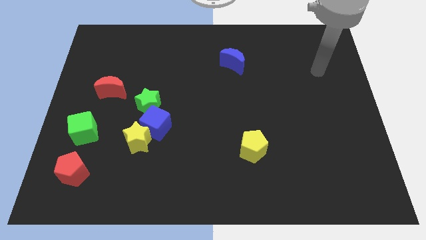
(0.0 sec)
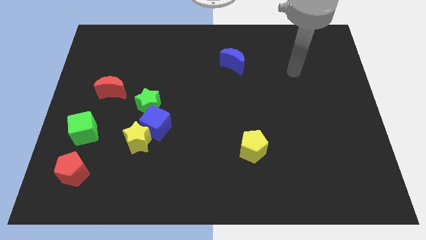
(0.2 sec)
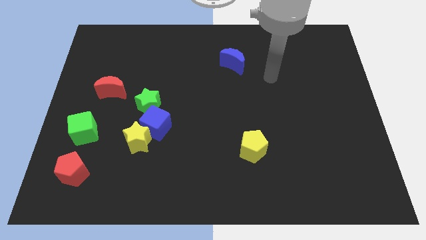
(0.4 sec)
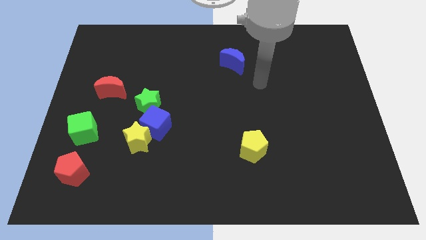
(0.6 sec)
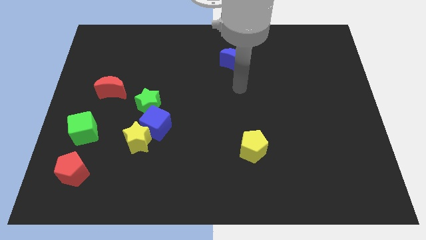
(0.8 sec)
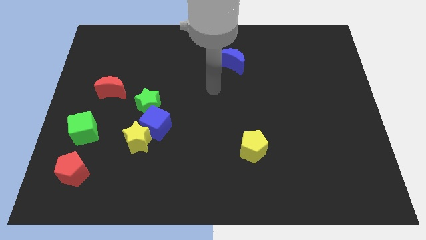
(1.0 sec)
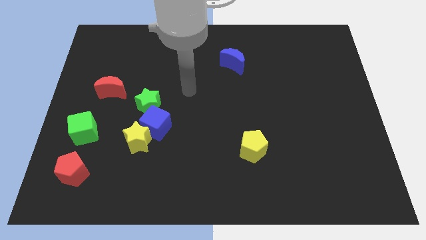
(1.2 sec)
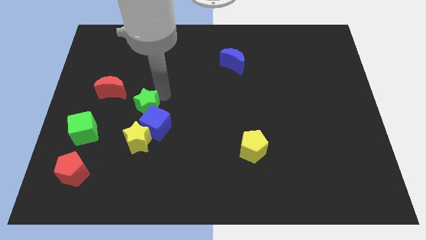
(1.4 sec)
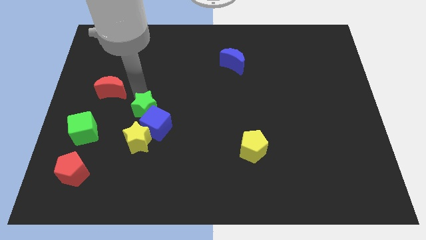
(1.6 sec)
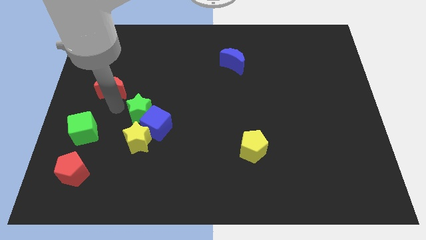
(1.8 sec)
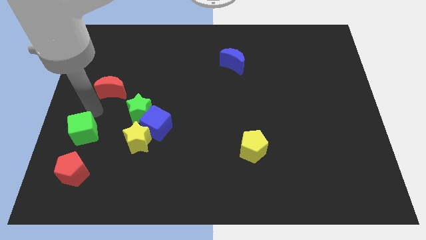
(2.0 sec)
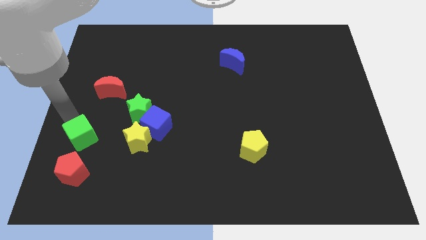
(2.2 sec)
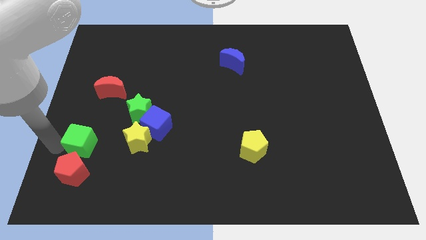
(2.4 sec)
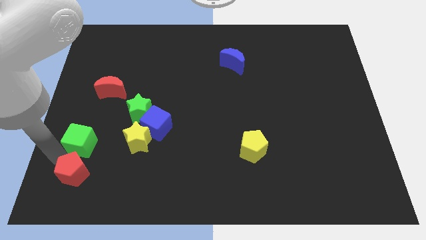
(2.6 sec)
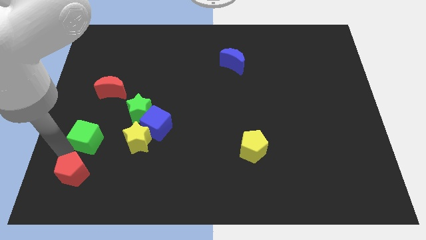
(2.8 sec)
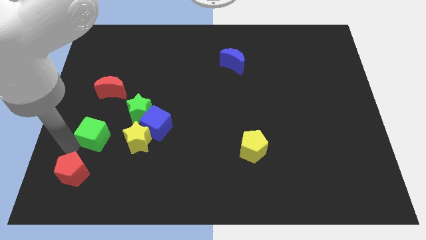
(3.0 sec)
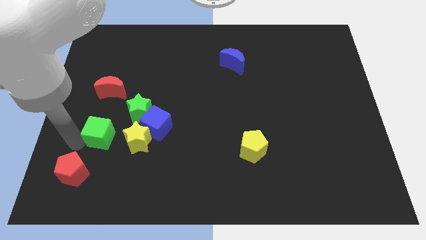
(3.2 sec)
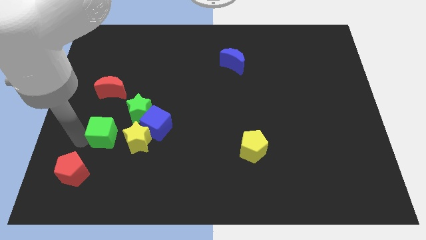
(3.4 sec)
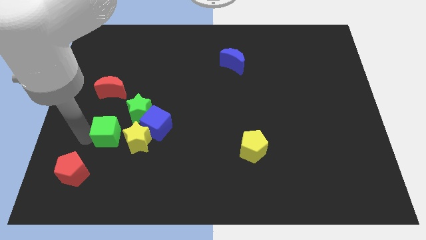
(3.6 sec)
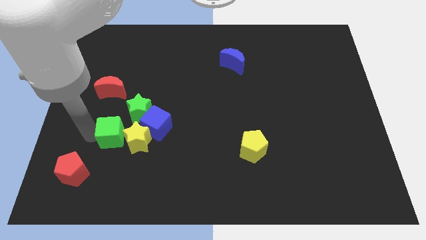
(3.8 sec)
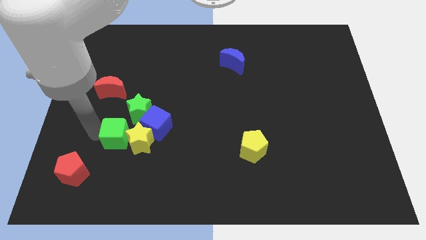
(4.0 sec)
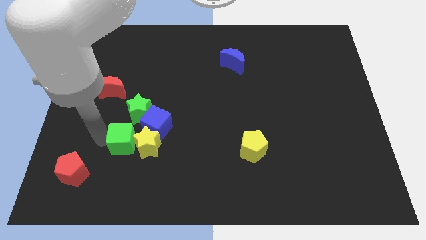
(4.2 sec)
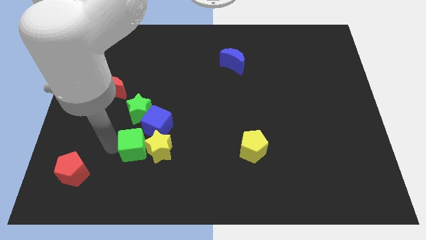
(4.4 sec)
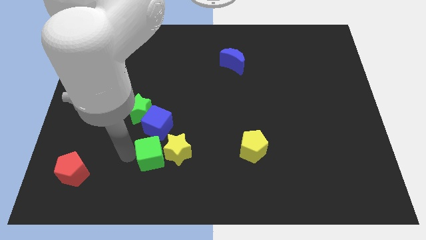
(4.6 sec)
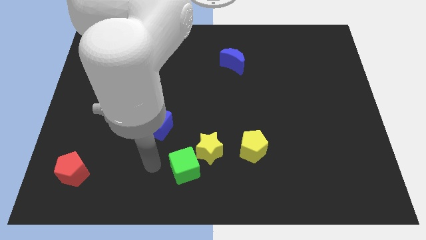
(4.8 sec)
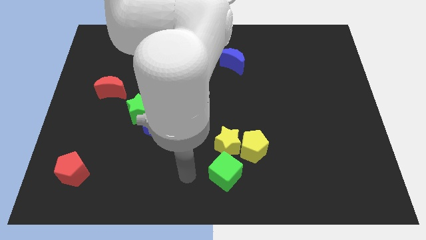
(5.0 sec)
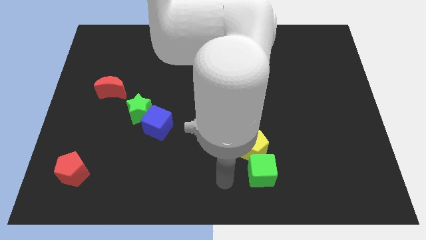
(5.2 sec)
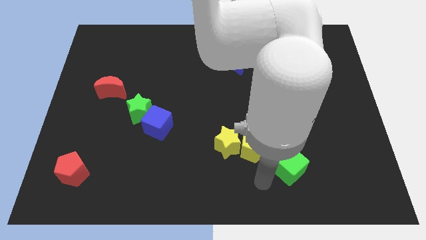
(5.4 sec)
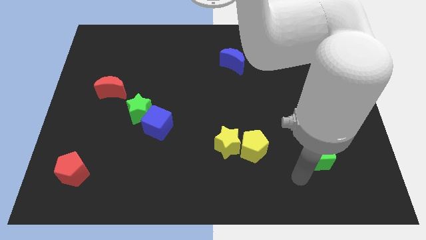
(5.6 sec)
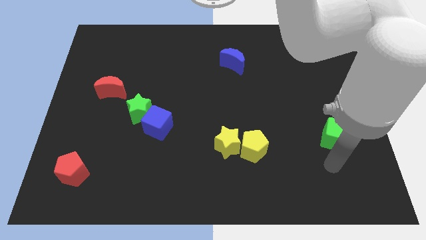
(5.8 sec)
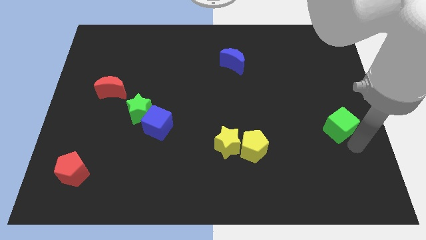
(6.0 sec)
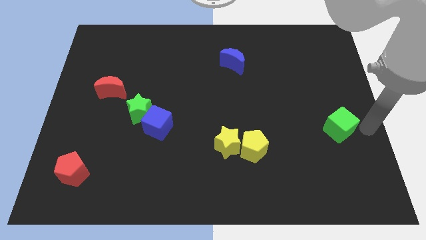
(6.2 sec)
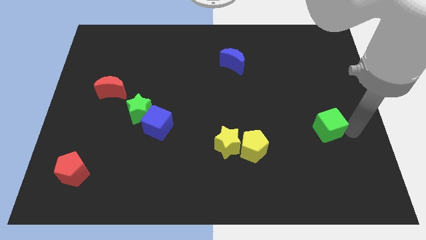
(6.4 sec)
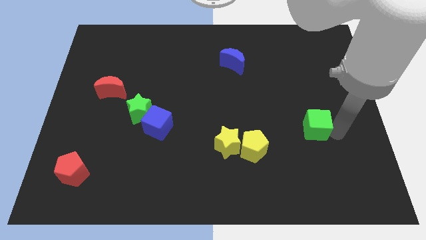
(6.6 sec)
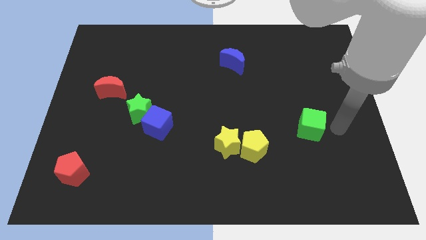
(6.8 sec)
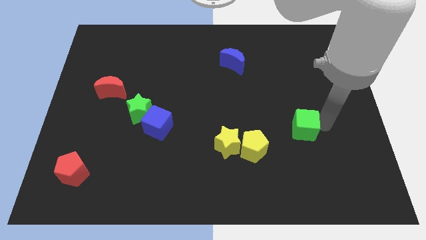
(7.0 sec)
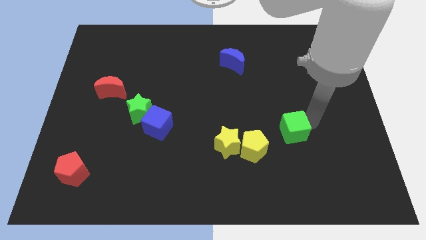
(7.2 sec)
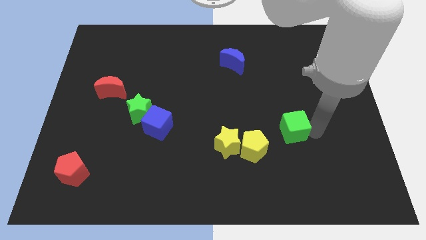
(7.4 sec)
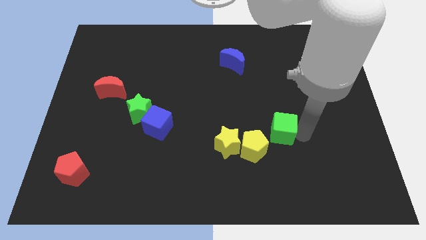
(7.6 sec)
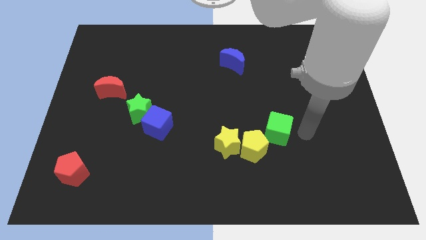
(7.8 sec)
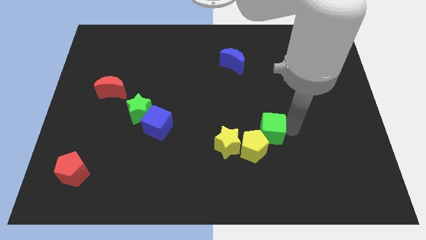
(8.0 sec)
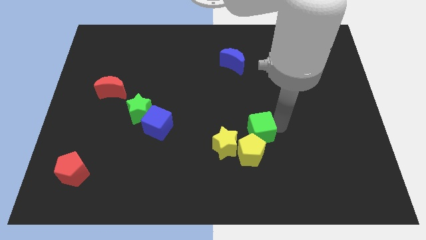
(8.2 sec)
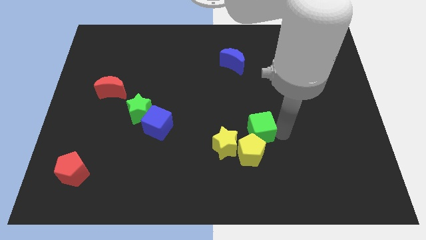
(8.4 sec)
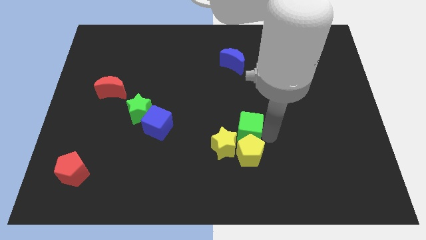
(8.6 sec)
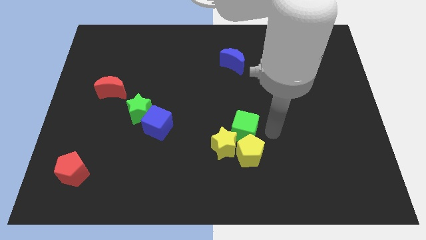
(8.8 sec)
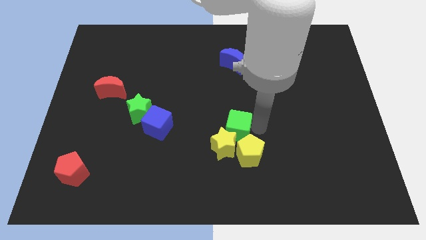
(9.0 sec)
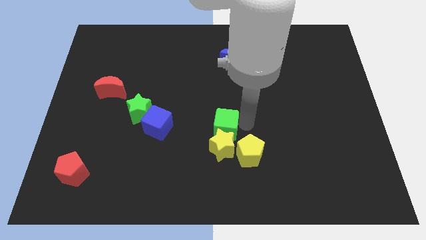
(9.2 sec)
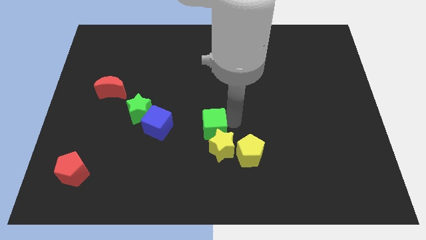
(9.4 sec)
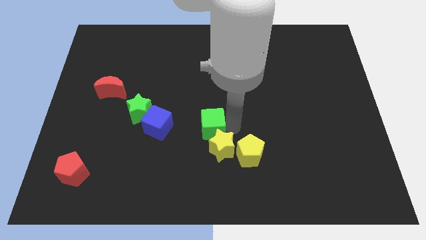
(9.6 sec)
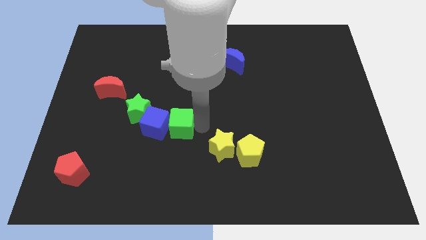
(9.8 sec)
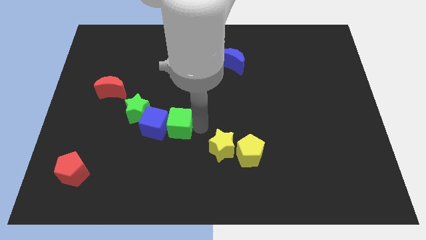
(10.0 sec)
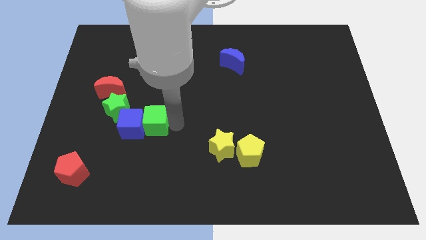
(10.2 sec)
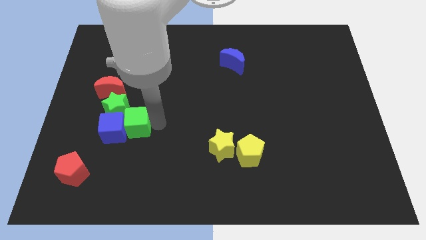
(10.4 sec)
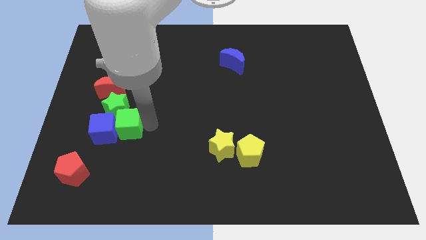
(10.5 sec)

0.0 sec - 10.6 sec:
push the green cube towards the green star

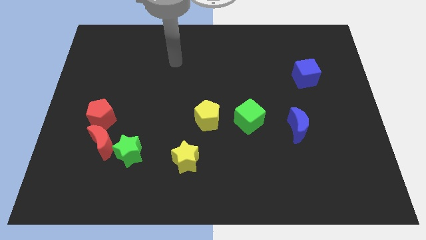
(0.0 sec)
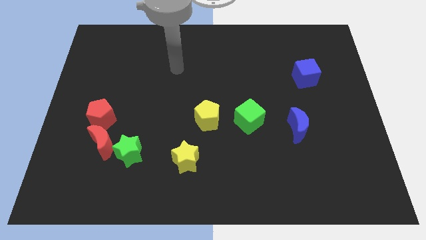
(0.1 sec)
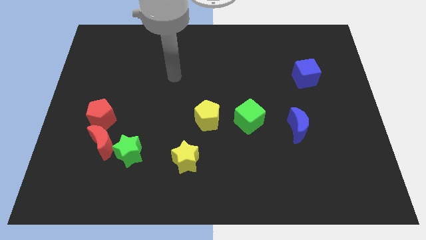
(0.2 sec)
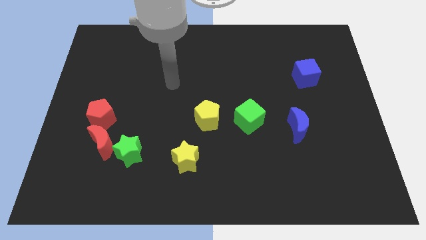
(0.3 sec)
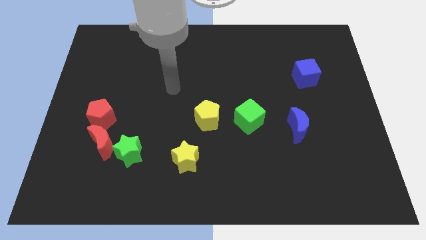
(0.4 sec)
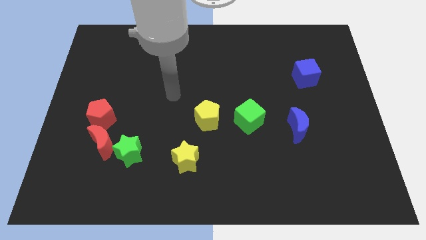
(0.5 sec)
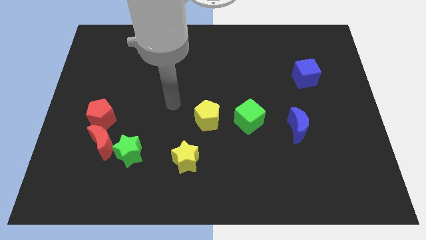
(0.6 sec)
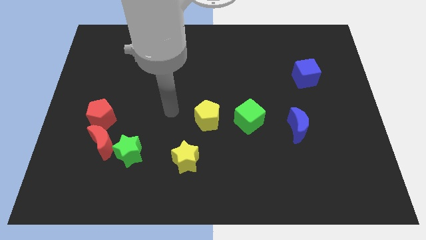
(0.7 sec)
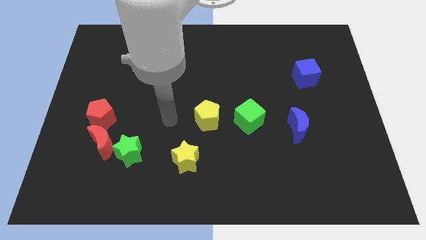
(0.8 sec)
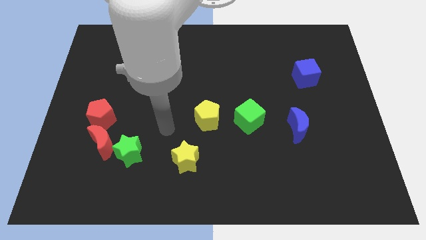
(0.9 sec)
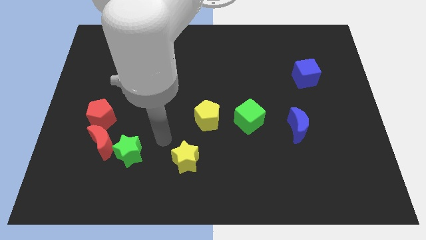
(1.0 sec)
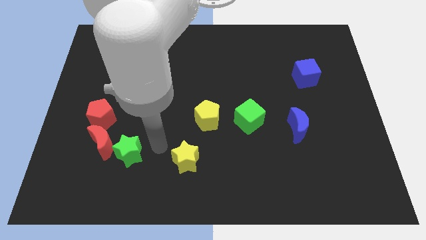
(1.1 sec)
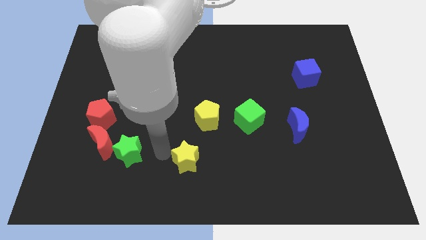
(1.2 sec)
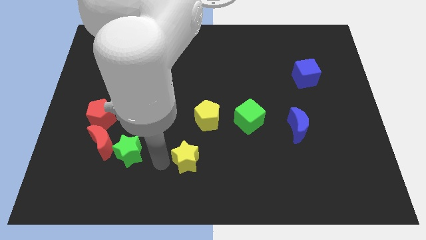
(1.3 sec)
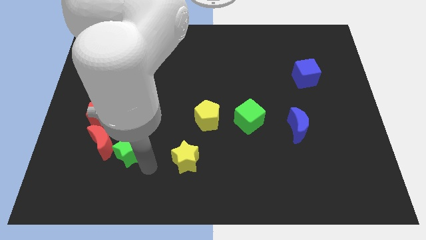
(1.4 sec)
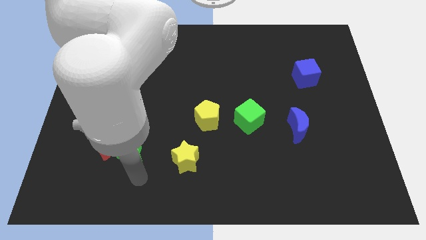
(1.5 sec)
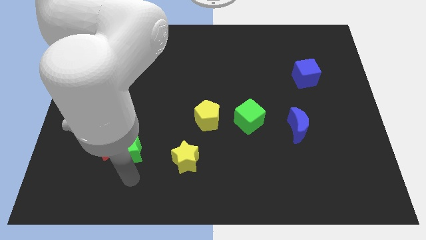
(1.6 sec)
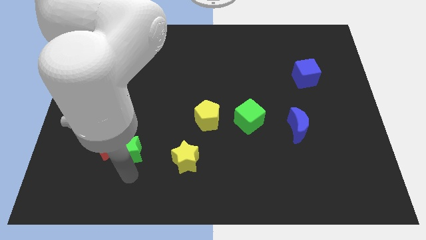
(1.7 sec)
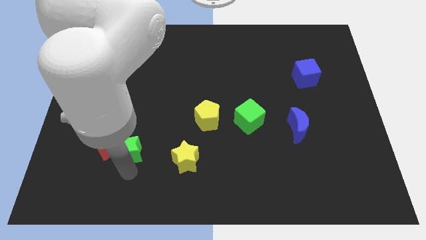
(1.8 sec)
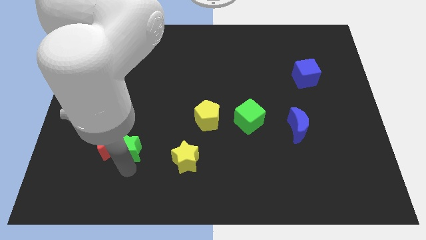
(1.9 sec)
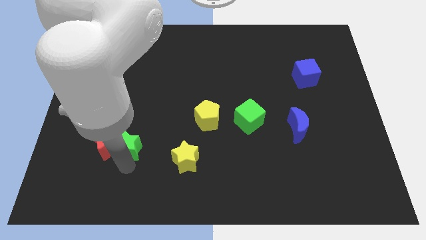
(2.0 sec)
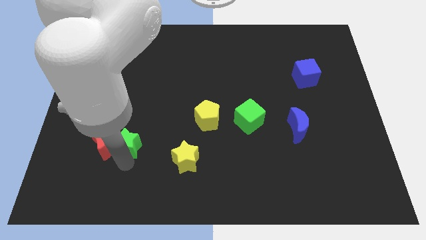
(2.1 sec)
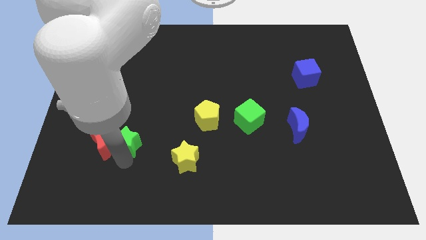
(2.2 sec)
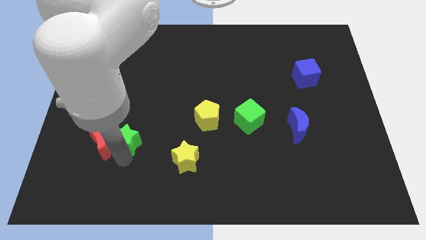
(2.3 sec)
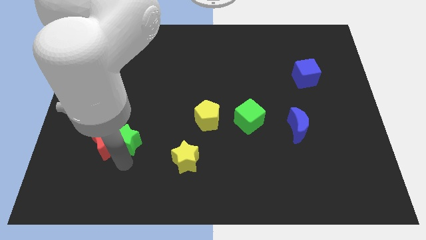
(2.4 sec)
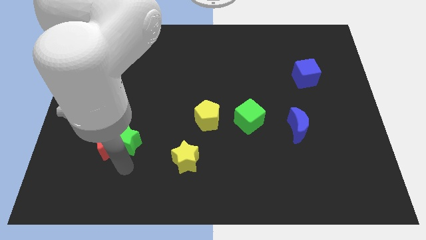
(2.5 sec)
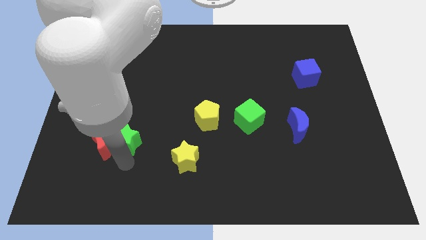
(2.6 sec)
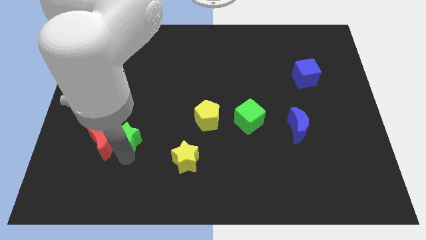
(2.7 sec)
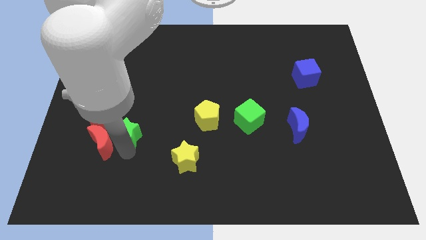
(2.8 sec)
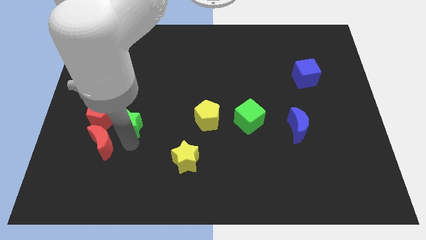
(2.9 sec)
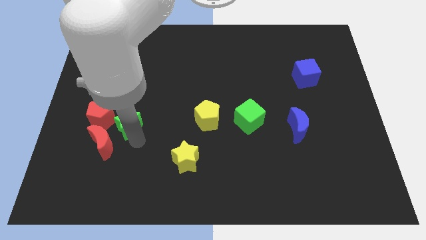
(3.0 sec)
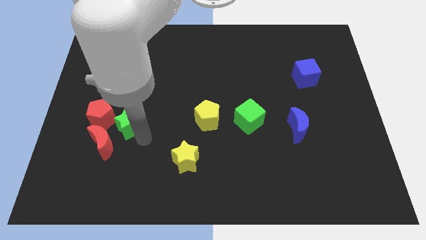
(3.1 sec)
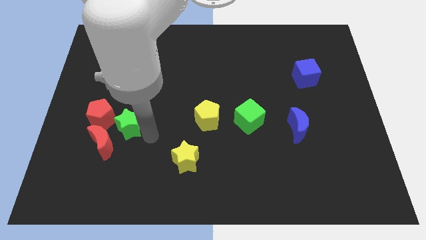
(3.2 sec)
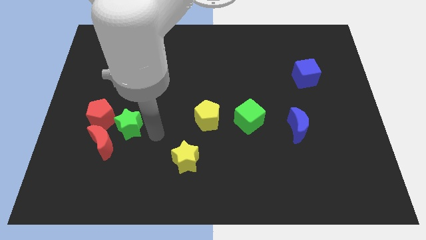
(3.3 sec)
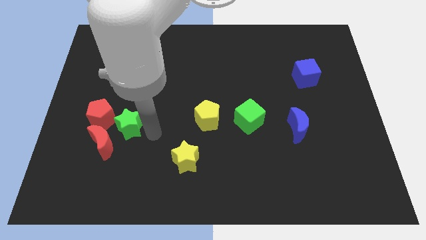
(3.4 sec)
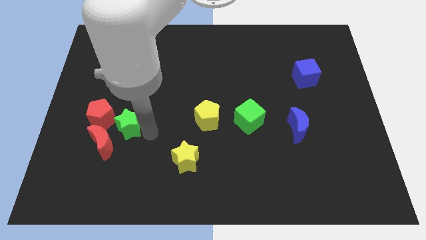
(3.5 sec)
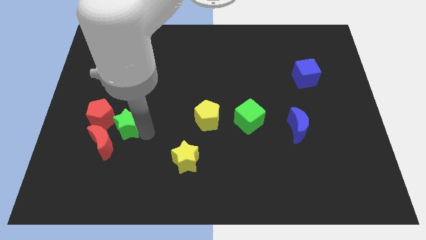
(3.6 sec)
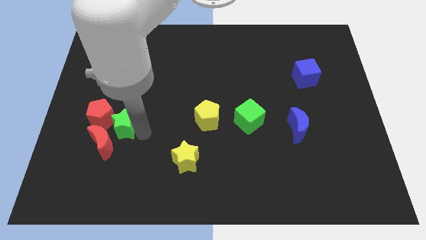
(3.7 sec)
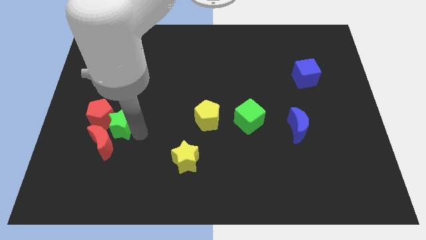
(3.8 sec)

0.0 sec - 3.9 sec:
put the green star towards the red pentagon
